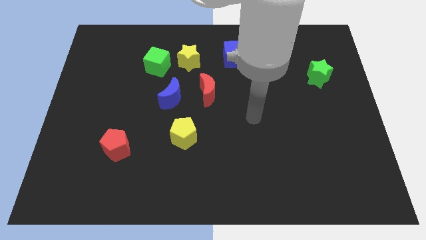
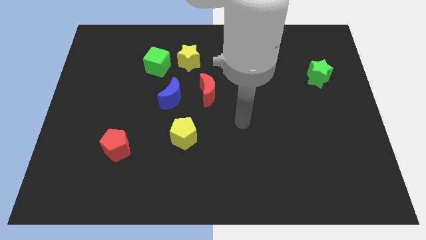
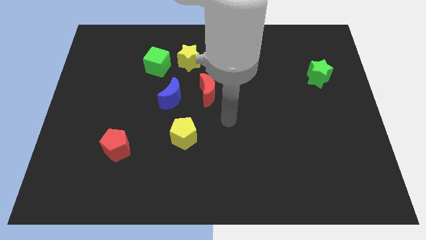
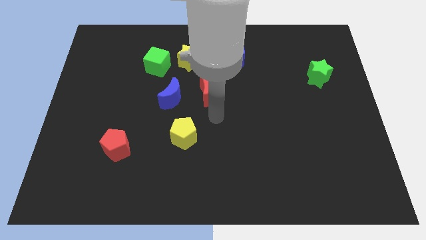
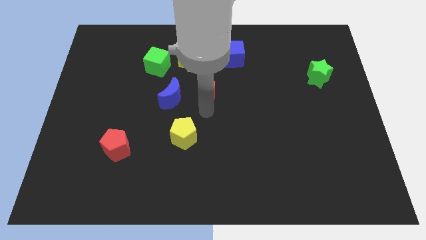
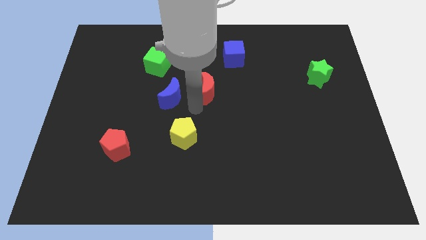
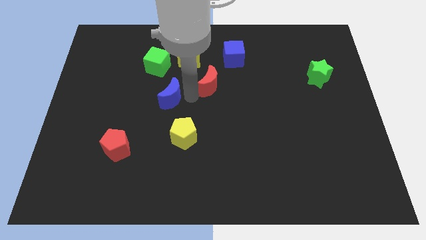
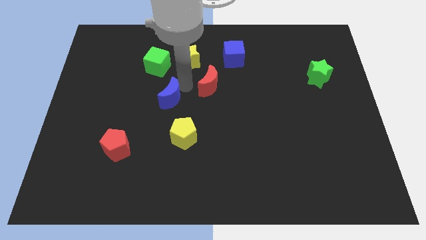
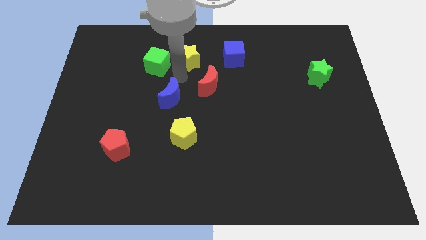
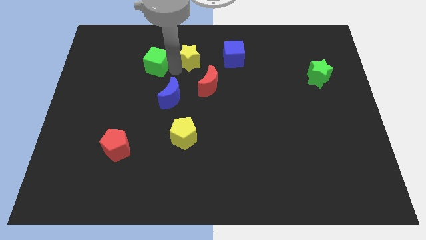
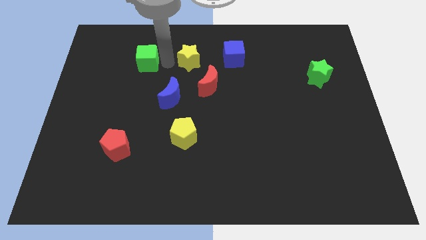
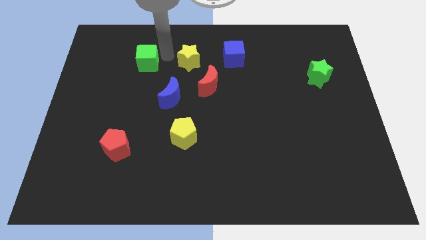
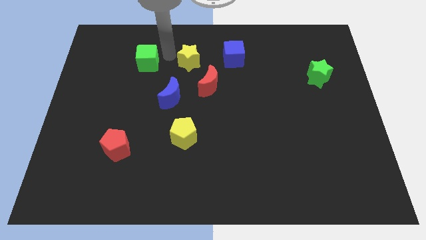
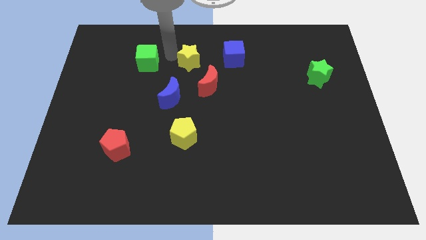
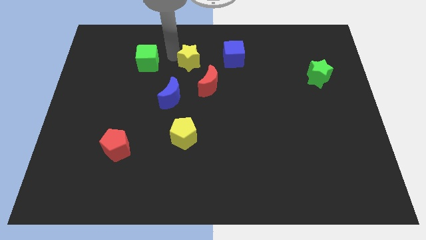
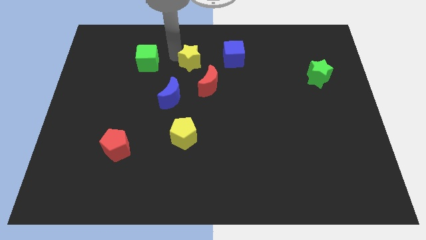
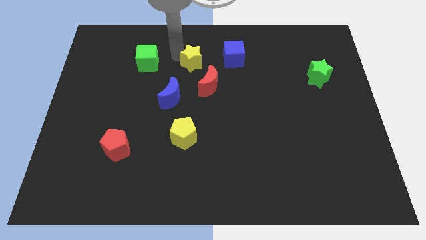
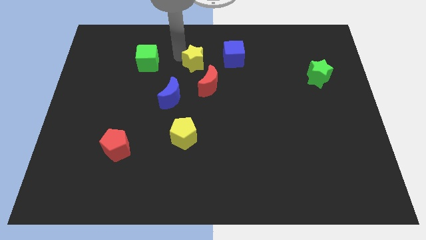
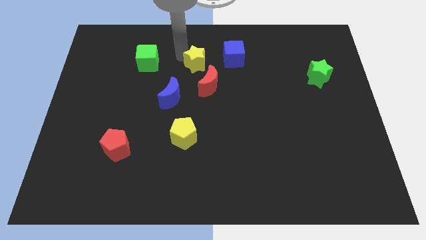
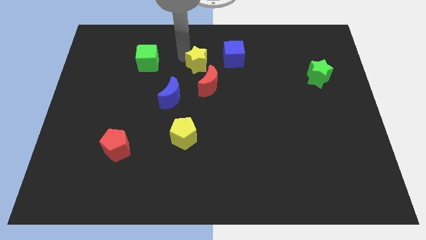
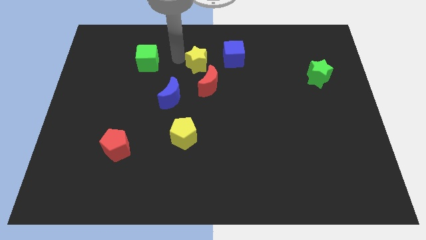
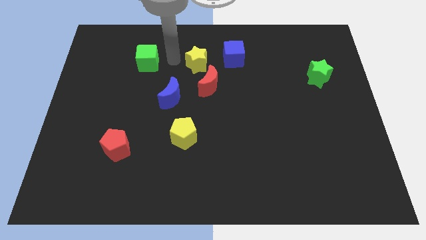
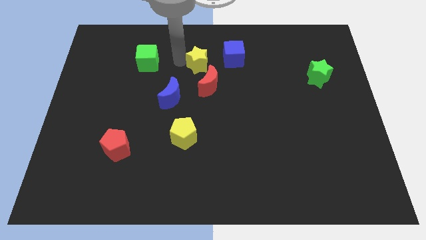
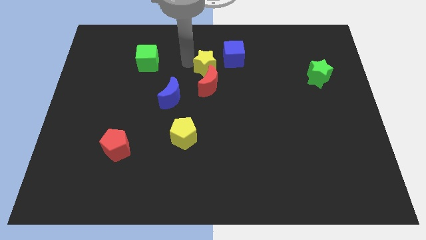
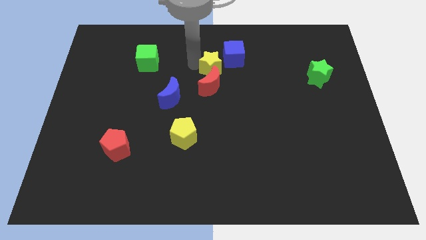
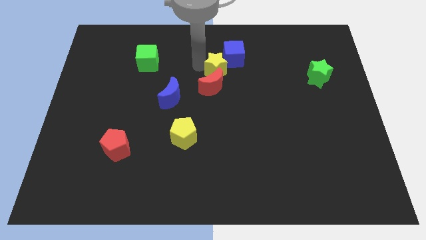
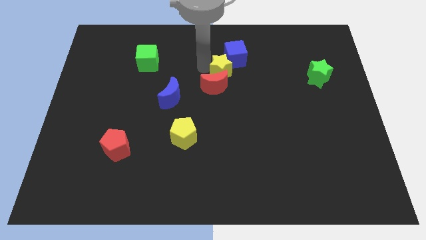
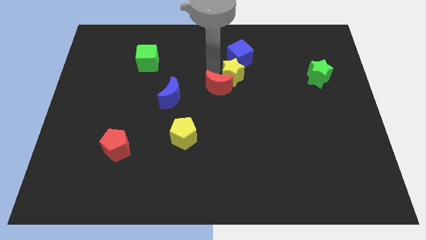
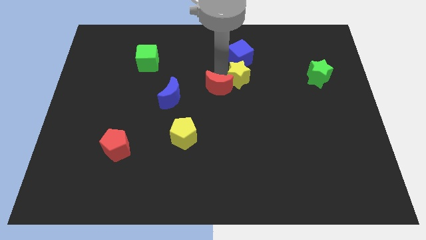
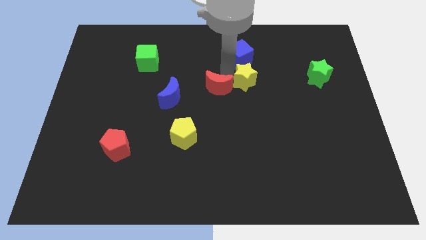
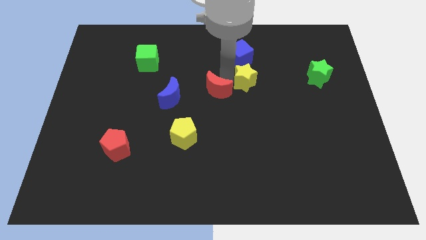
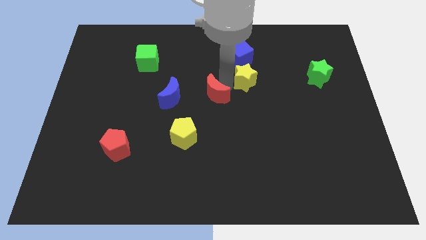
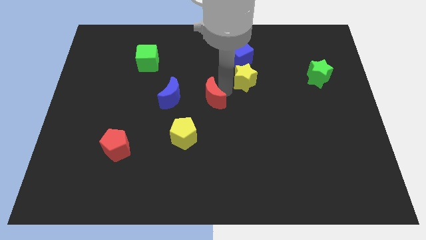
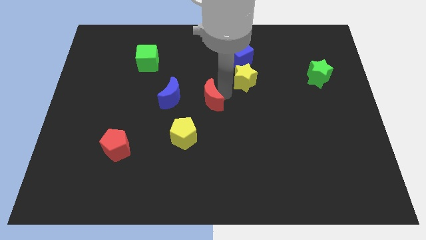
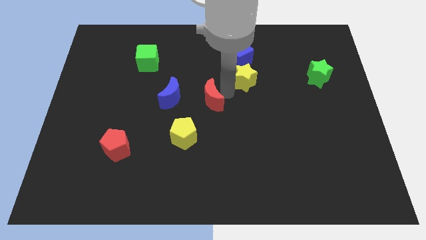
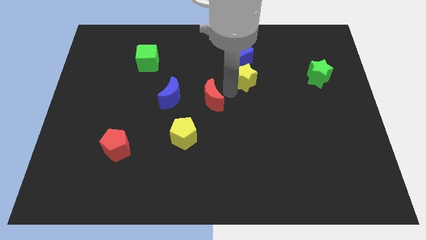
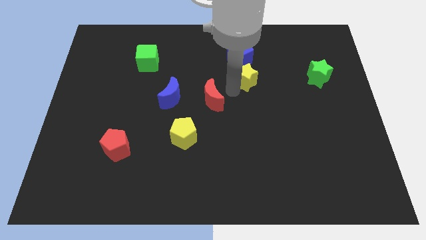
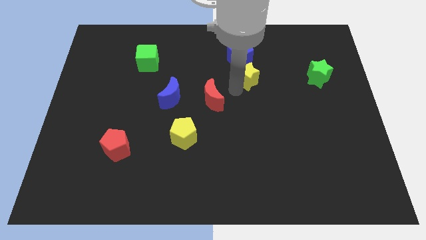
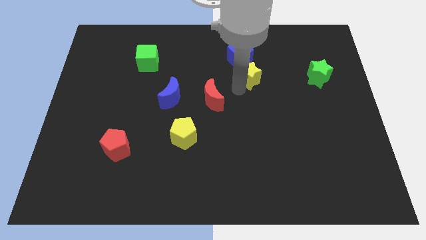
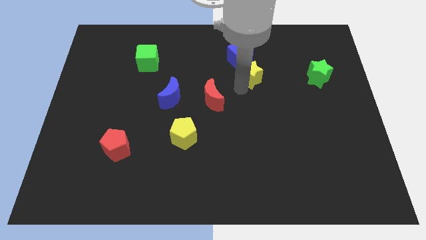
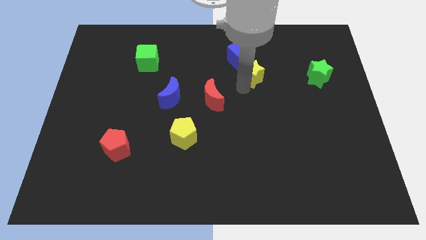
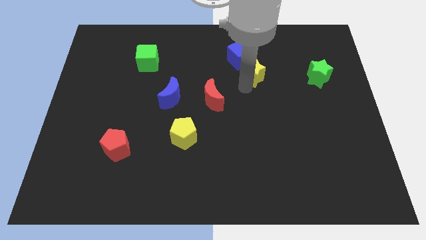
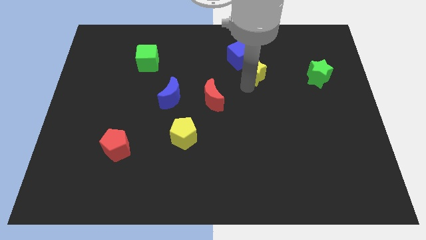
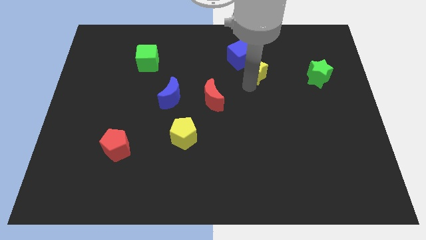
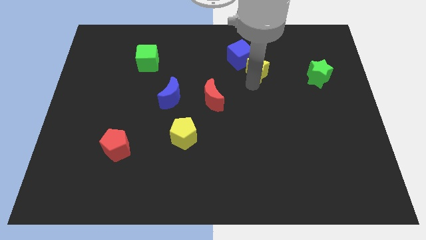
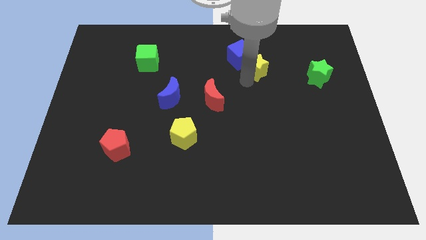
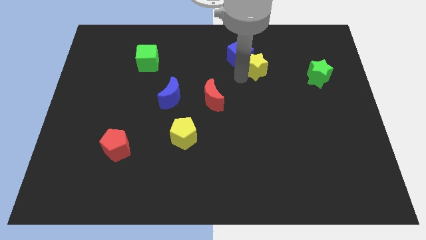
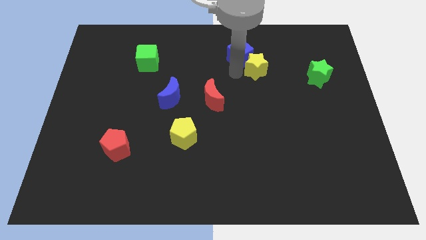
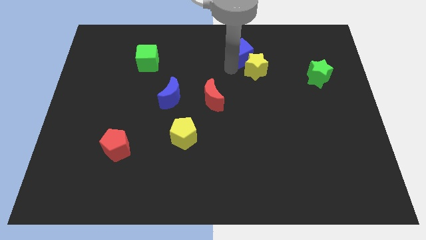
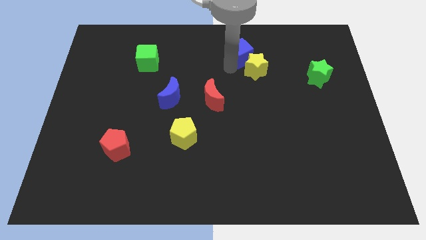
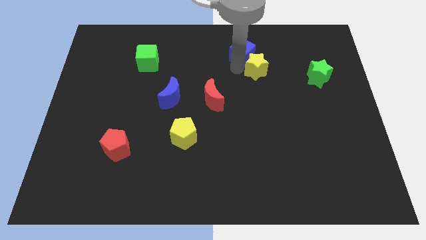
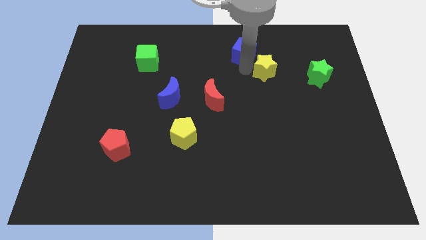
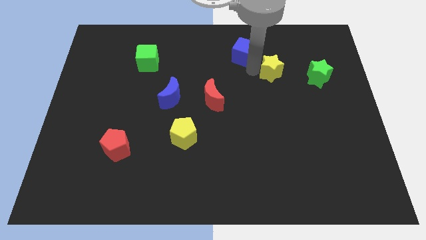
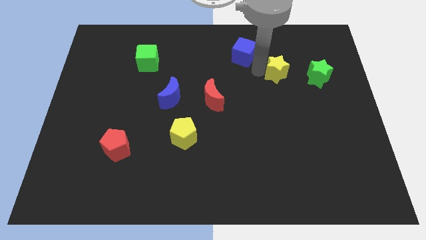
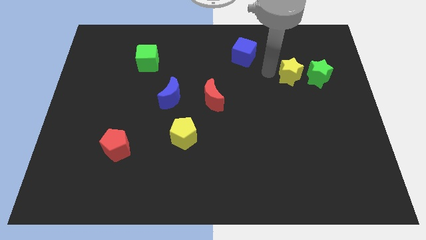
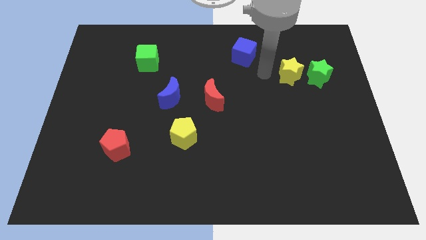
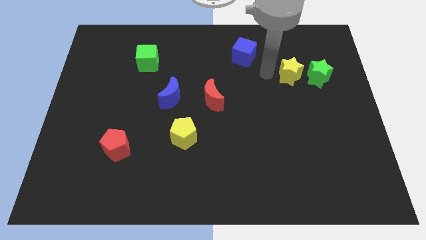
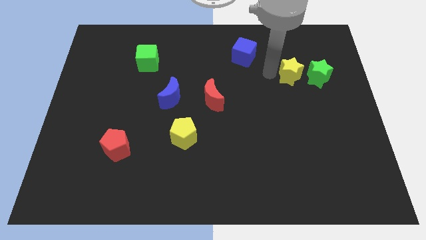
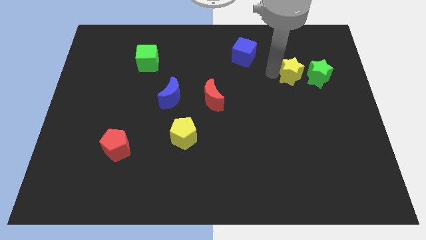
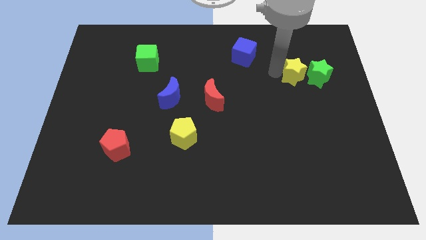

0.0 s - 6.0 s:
push the yellow star to the green star

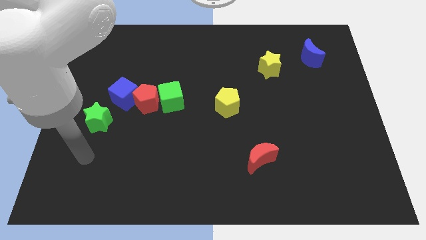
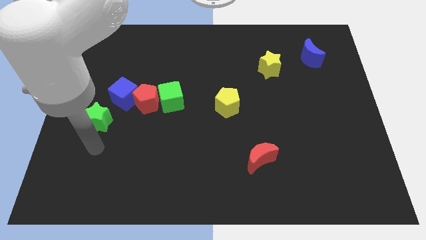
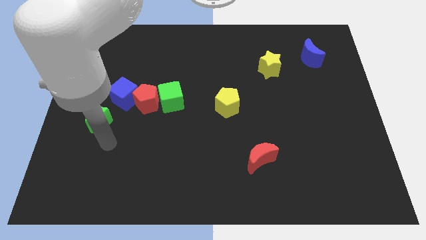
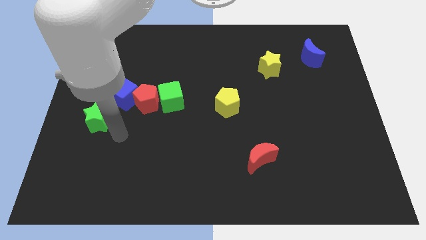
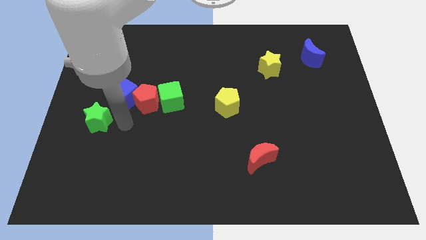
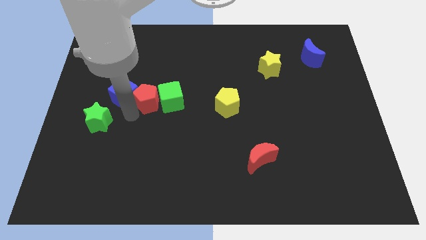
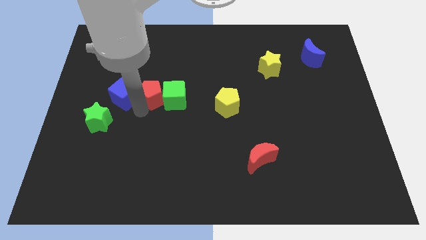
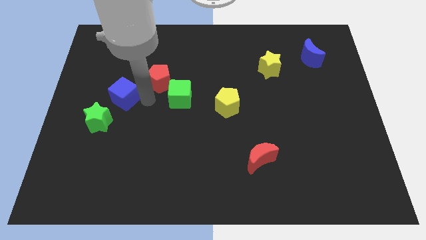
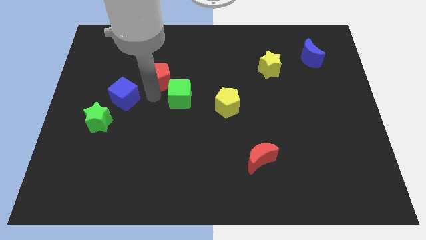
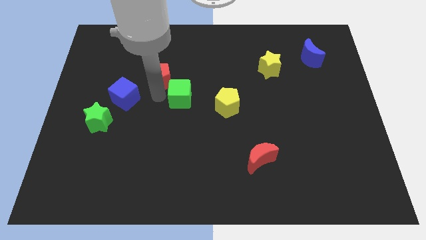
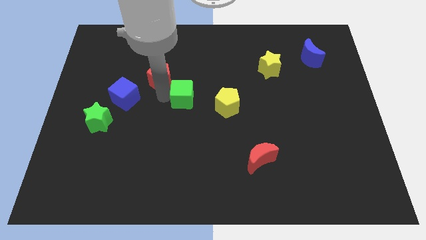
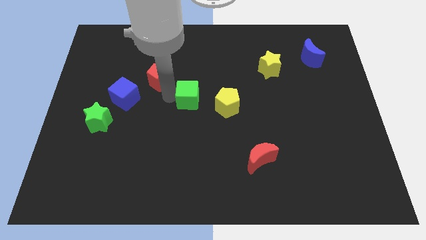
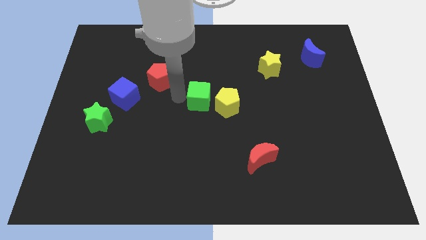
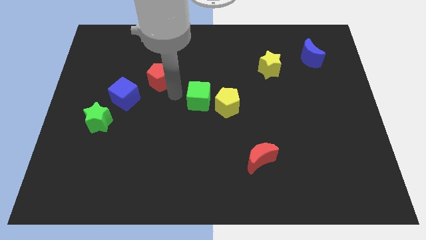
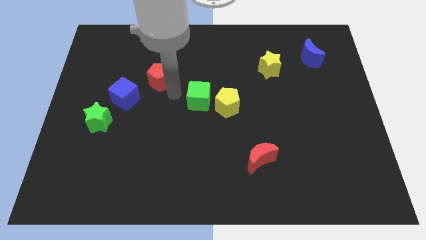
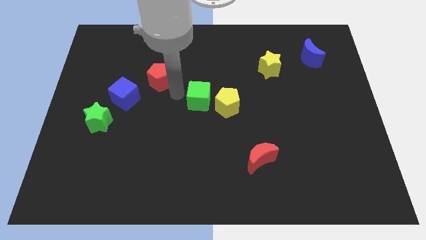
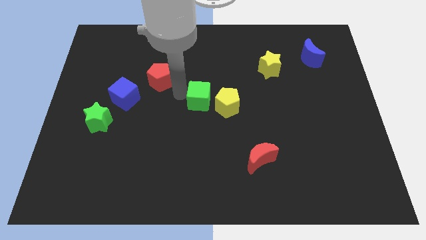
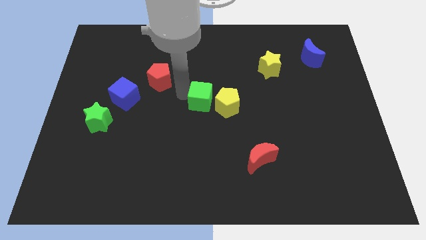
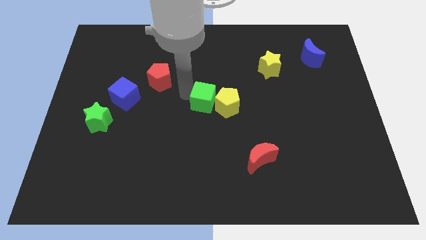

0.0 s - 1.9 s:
slide the green cube next to the yellow pentagon
